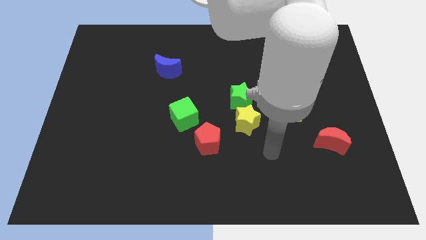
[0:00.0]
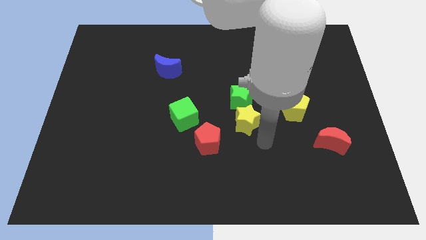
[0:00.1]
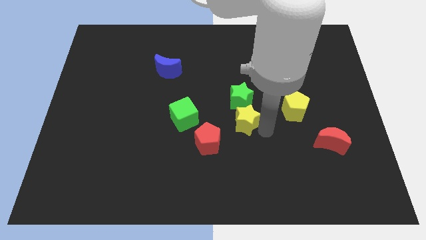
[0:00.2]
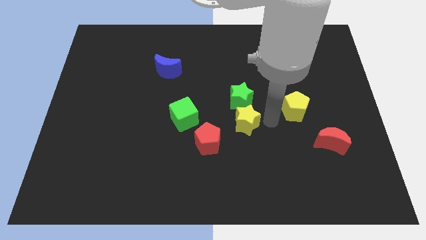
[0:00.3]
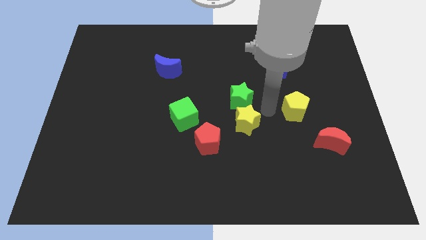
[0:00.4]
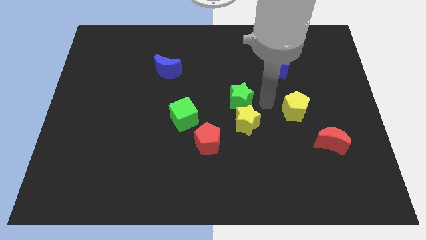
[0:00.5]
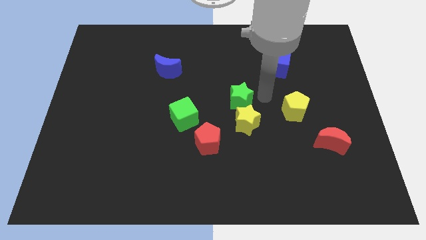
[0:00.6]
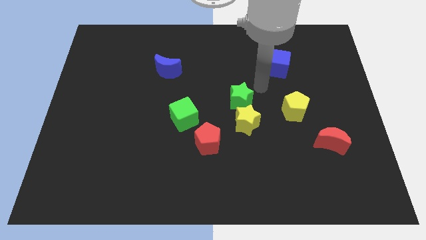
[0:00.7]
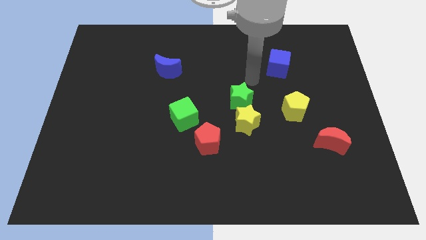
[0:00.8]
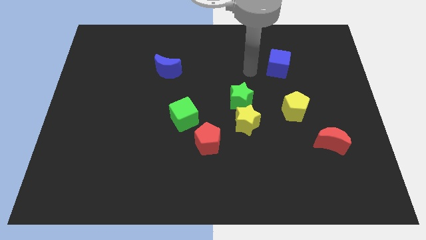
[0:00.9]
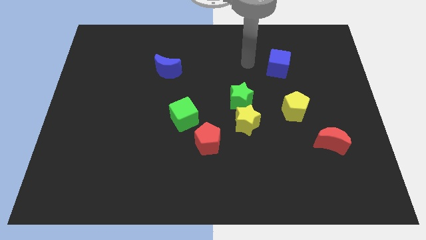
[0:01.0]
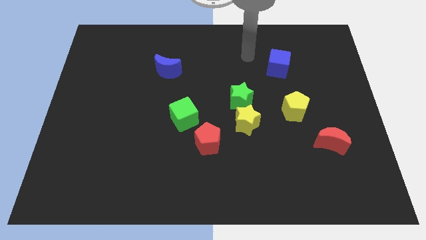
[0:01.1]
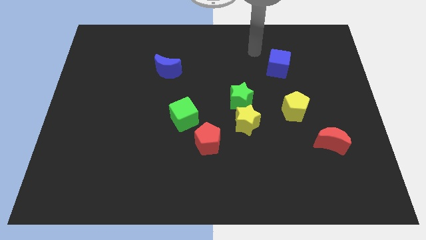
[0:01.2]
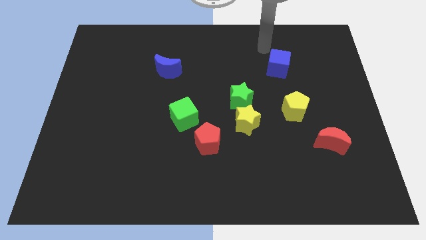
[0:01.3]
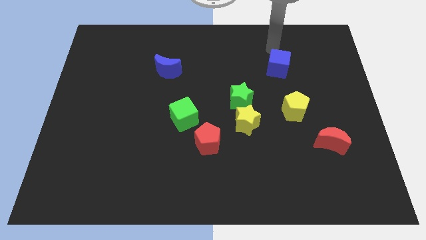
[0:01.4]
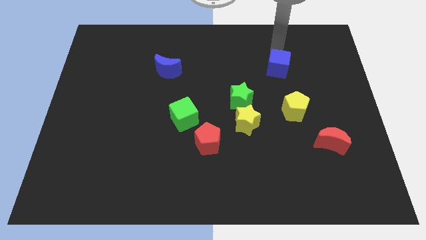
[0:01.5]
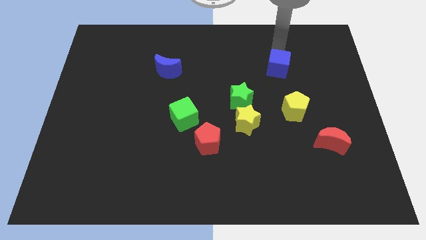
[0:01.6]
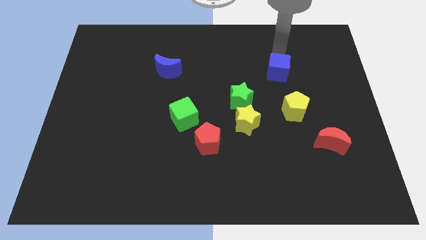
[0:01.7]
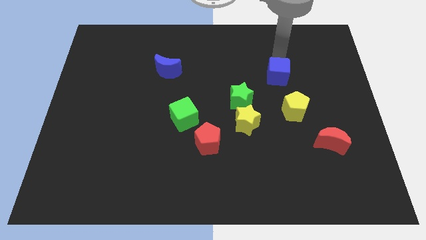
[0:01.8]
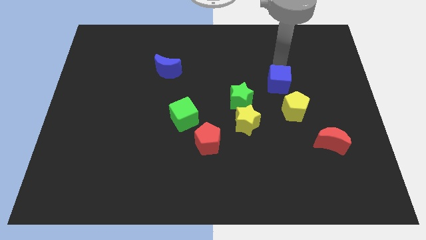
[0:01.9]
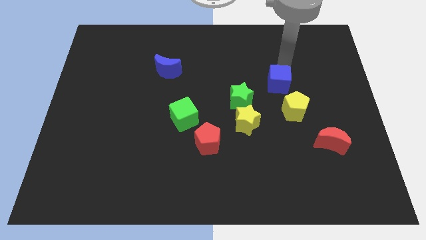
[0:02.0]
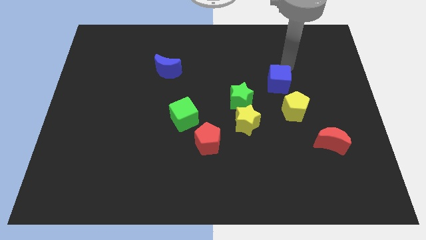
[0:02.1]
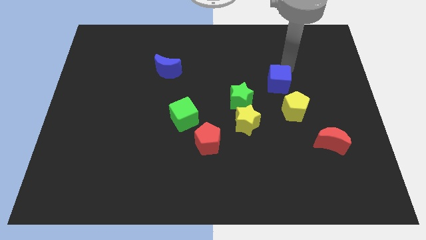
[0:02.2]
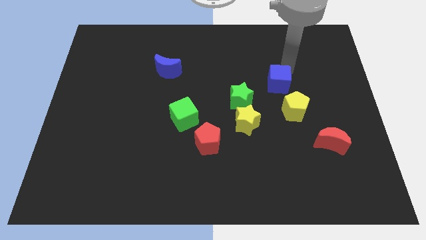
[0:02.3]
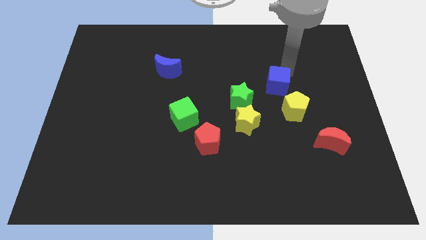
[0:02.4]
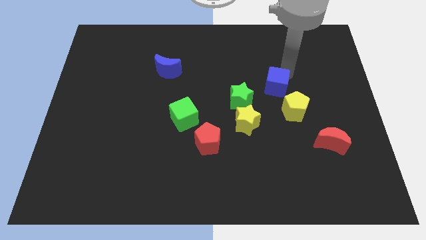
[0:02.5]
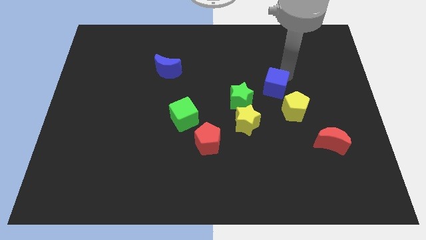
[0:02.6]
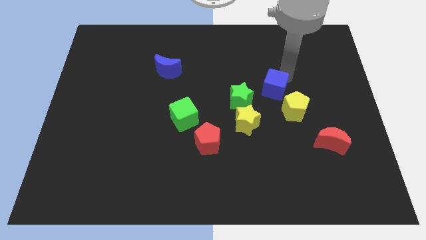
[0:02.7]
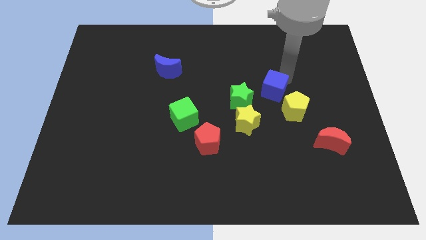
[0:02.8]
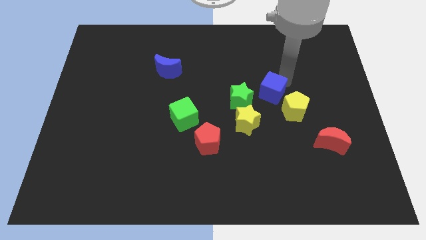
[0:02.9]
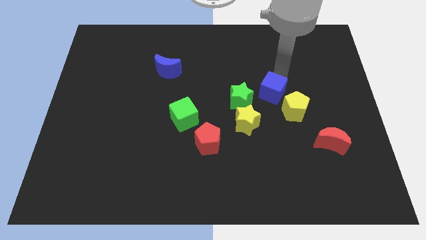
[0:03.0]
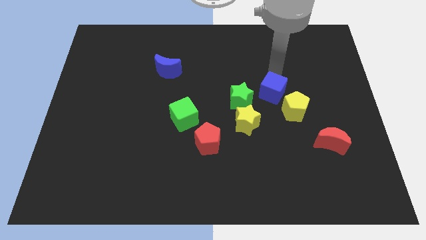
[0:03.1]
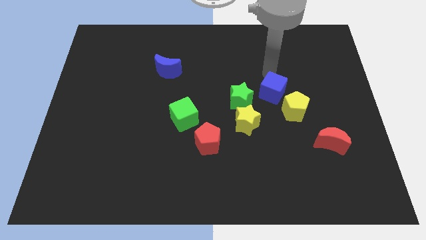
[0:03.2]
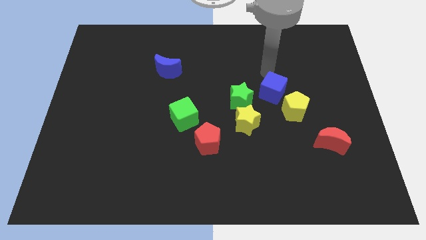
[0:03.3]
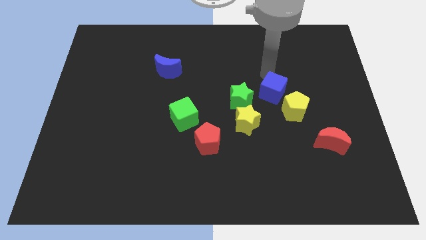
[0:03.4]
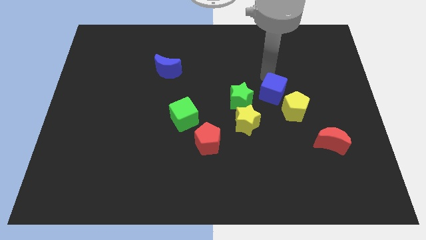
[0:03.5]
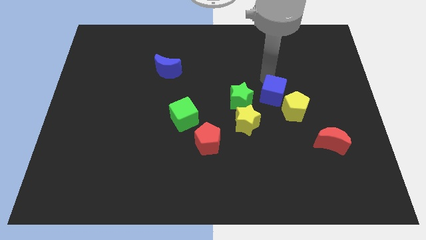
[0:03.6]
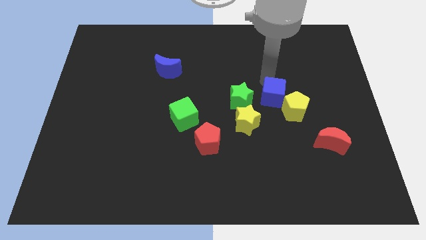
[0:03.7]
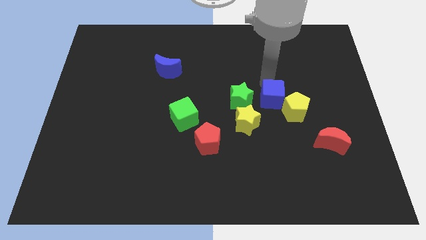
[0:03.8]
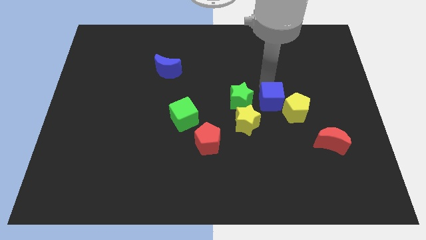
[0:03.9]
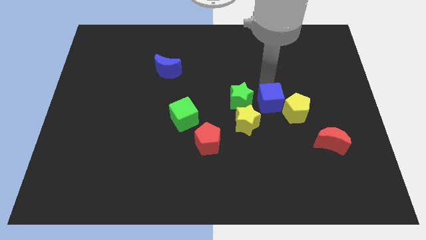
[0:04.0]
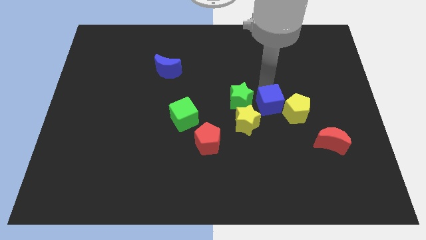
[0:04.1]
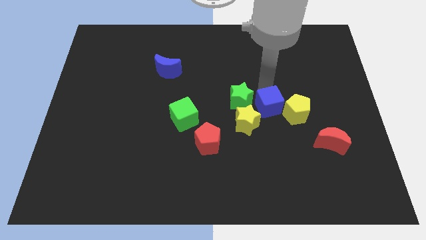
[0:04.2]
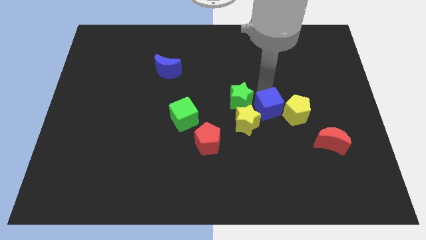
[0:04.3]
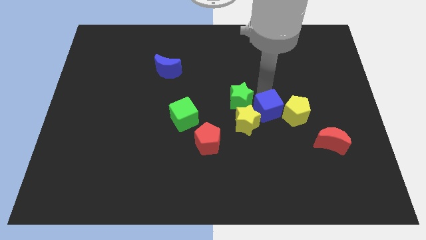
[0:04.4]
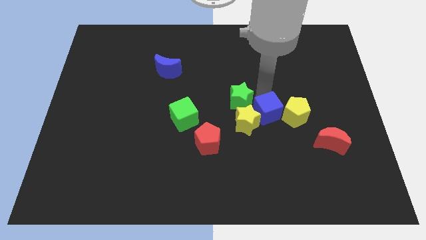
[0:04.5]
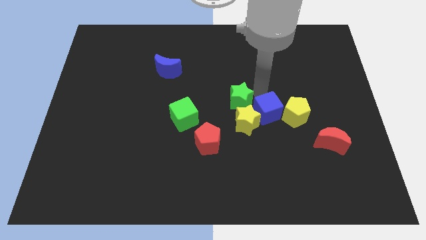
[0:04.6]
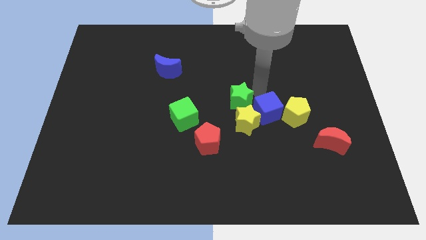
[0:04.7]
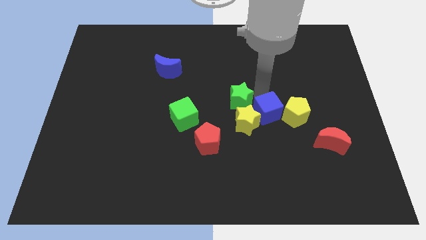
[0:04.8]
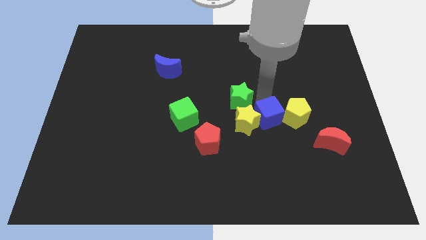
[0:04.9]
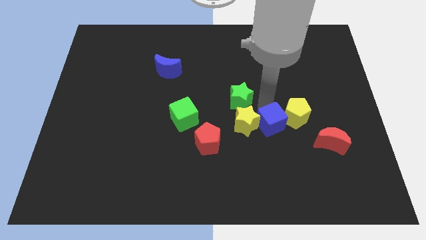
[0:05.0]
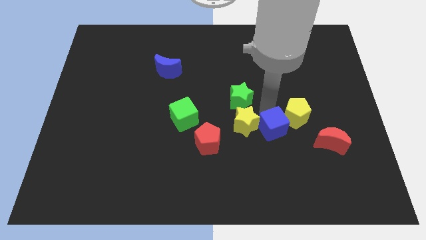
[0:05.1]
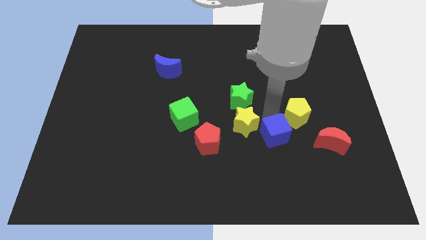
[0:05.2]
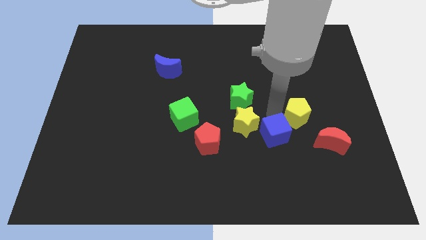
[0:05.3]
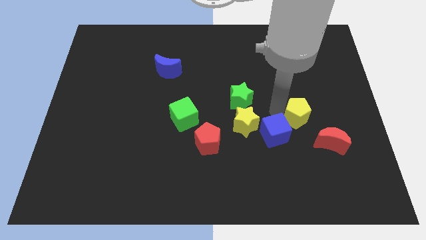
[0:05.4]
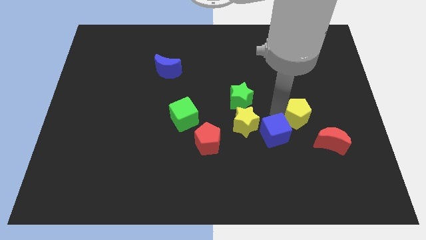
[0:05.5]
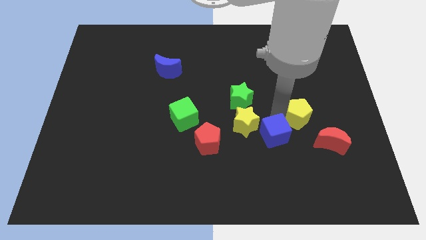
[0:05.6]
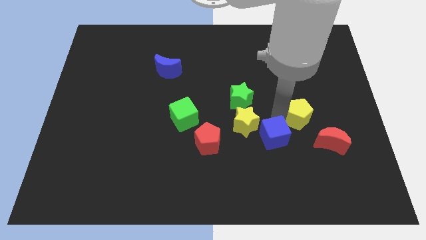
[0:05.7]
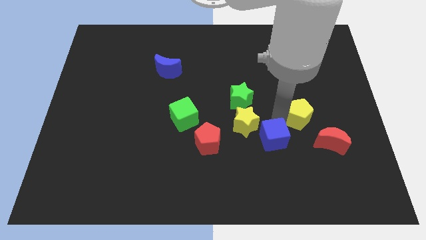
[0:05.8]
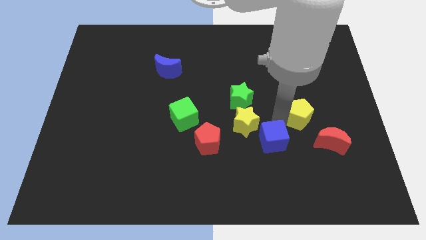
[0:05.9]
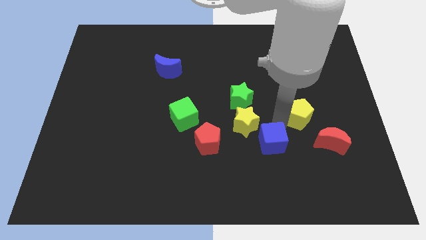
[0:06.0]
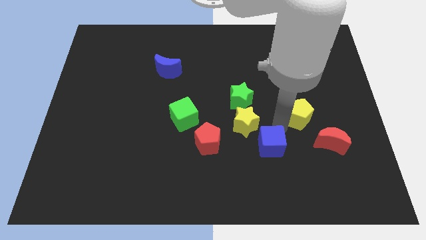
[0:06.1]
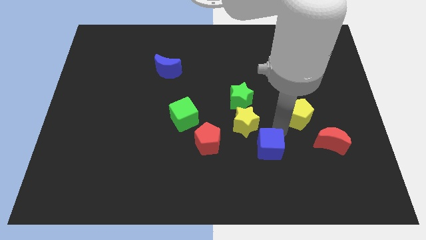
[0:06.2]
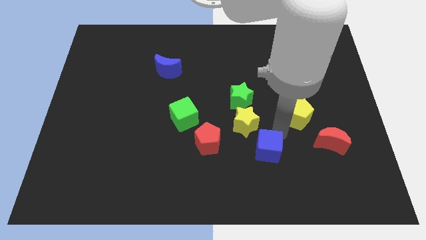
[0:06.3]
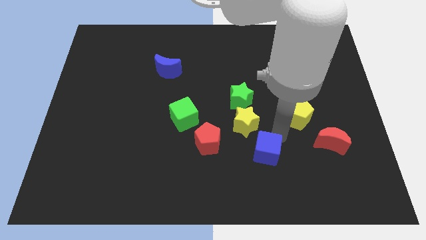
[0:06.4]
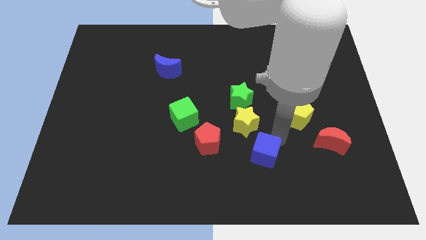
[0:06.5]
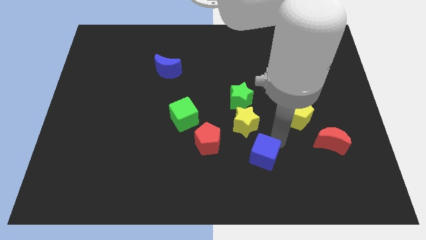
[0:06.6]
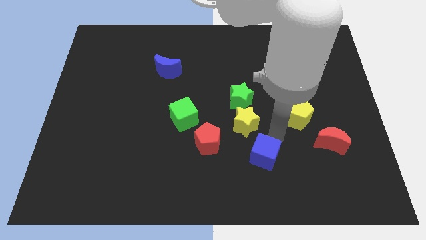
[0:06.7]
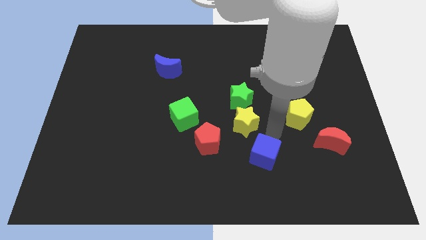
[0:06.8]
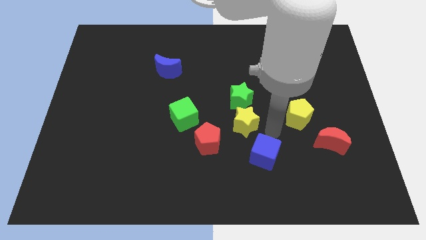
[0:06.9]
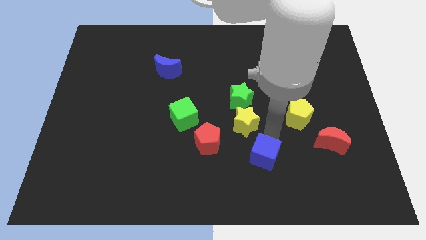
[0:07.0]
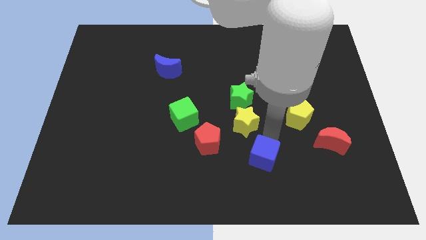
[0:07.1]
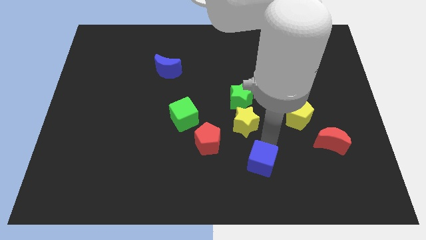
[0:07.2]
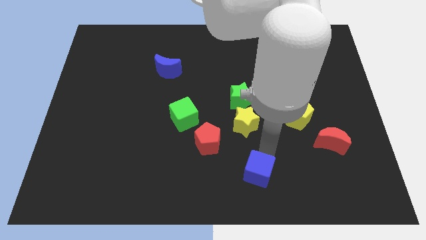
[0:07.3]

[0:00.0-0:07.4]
put the blue cube to the bottom side
